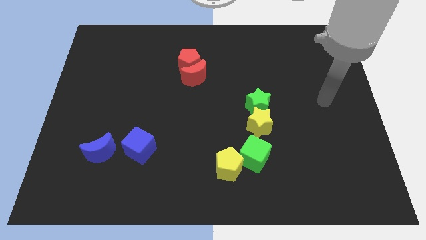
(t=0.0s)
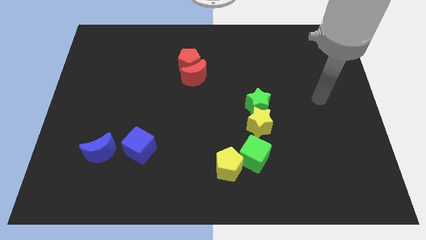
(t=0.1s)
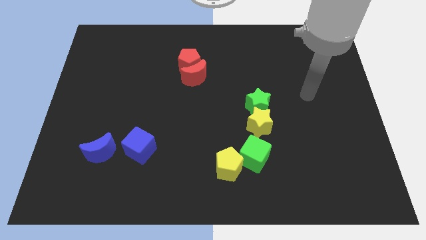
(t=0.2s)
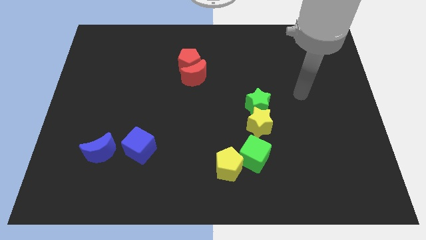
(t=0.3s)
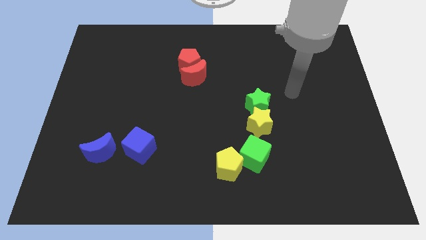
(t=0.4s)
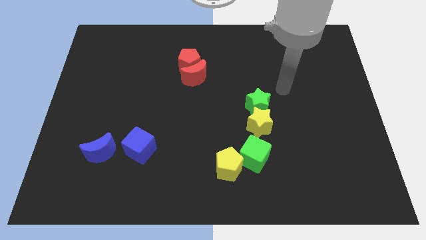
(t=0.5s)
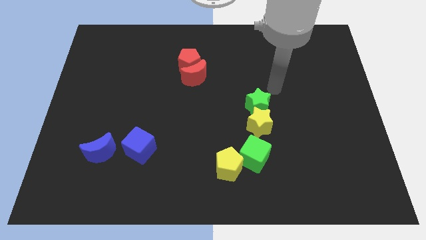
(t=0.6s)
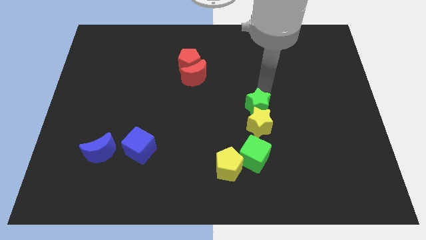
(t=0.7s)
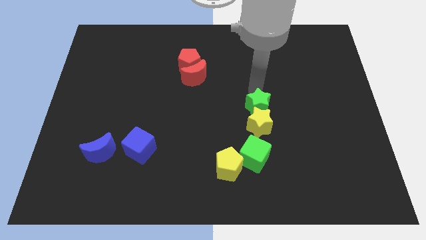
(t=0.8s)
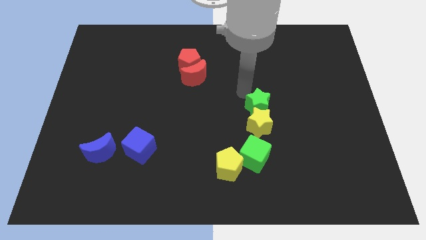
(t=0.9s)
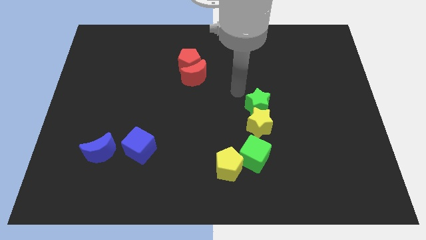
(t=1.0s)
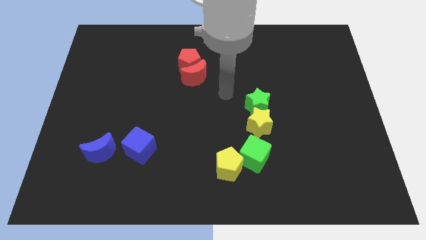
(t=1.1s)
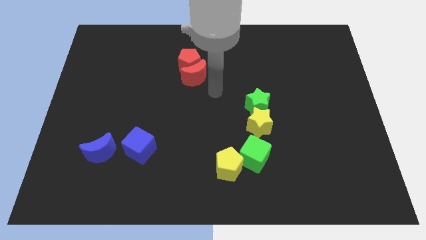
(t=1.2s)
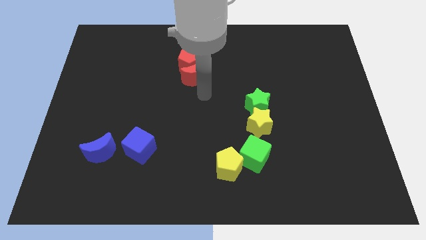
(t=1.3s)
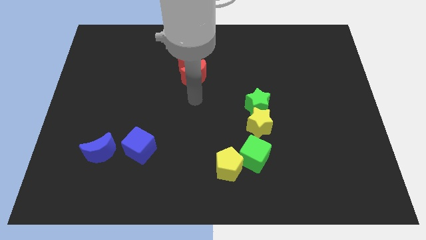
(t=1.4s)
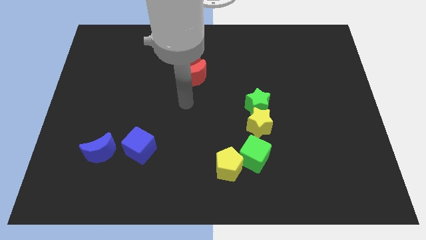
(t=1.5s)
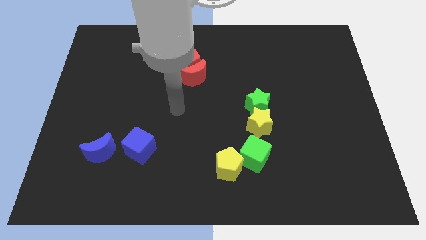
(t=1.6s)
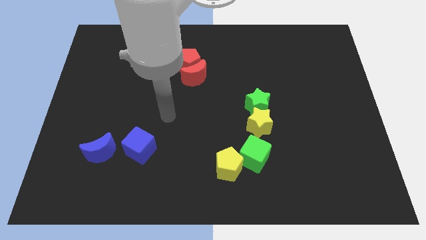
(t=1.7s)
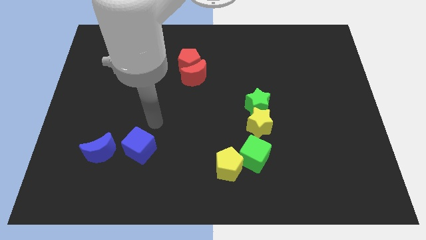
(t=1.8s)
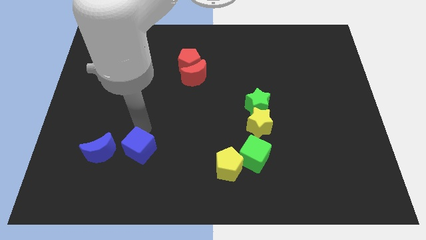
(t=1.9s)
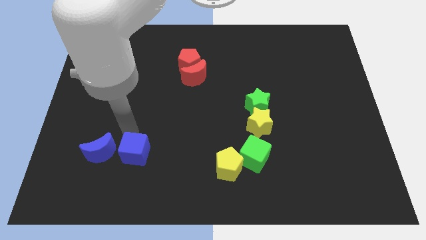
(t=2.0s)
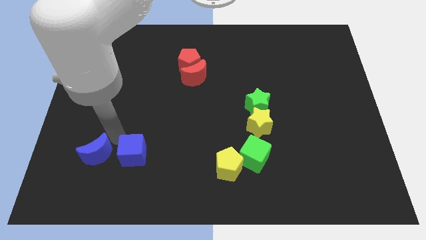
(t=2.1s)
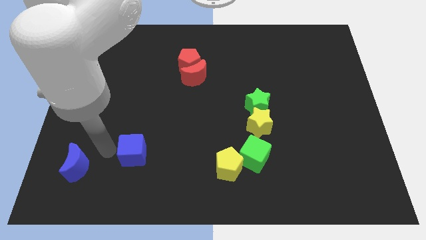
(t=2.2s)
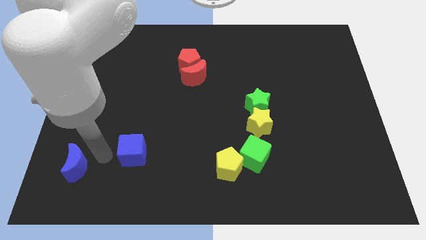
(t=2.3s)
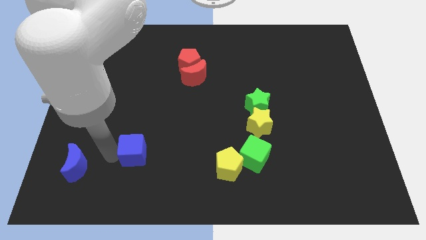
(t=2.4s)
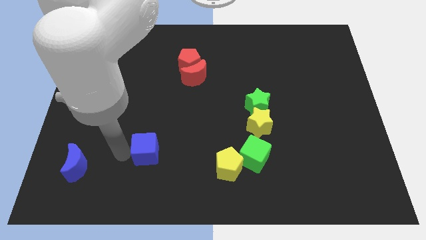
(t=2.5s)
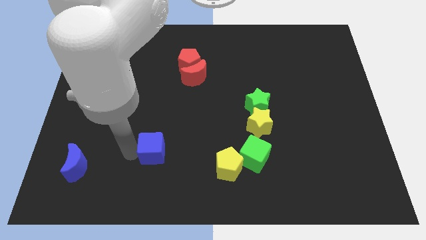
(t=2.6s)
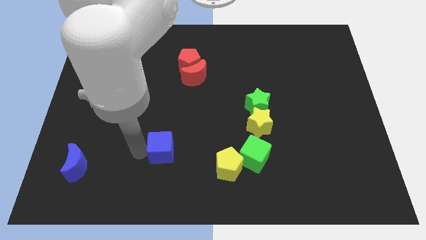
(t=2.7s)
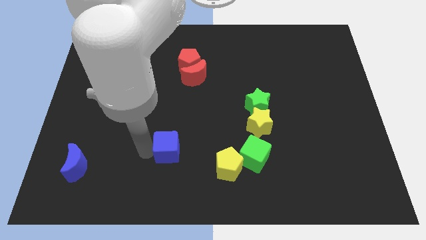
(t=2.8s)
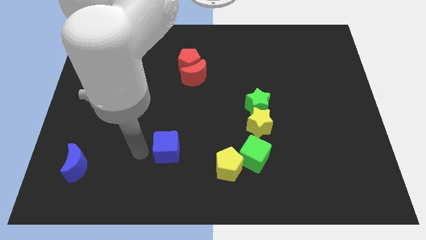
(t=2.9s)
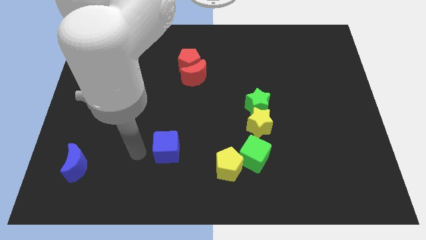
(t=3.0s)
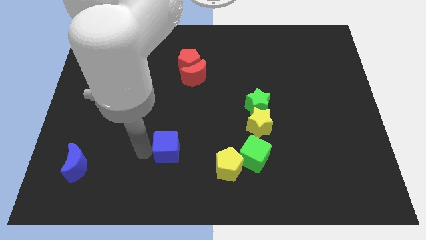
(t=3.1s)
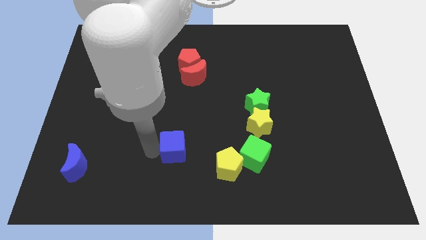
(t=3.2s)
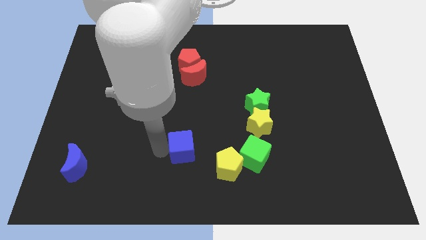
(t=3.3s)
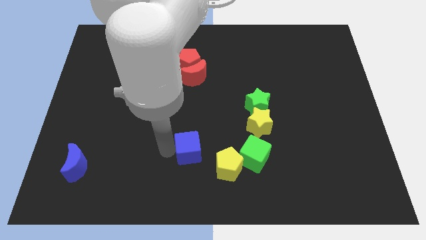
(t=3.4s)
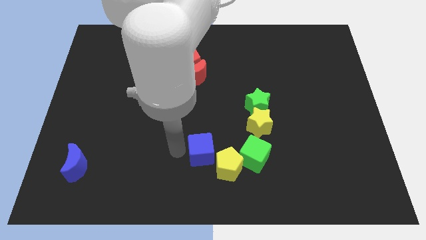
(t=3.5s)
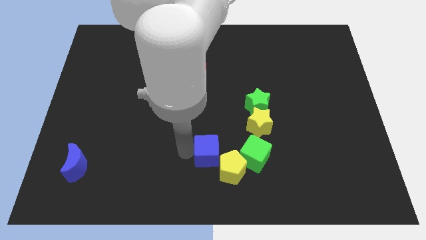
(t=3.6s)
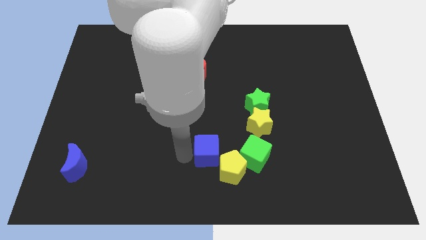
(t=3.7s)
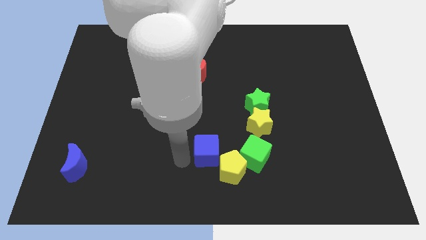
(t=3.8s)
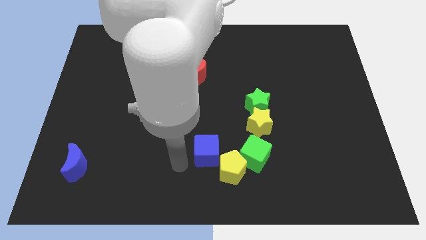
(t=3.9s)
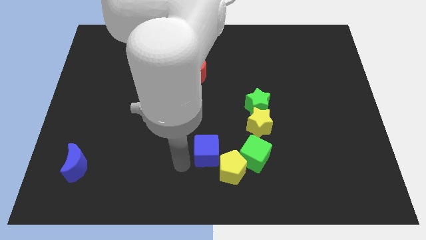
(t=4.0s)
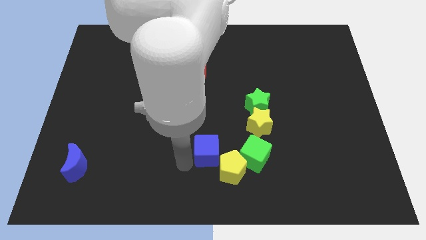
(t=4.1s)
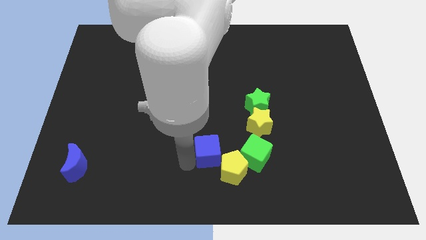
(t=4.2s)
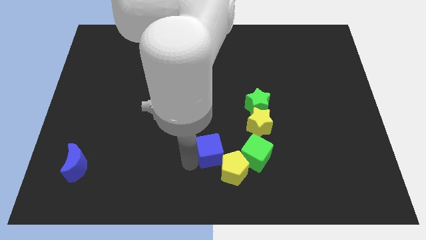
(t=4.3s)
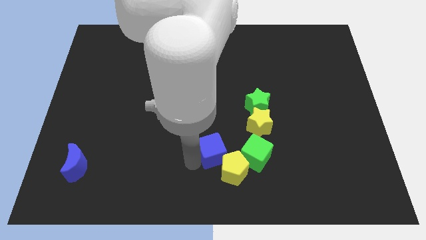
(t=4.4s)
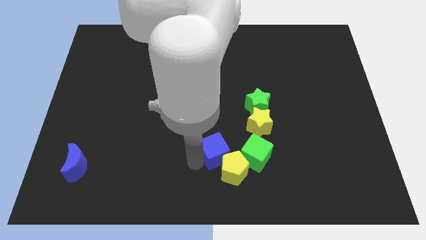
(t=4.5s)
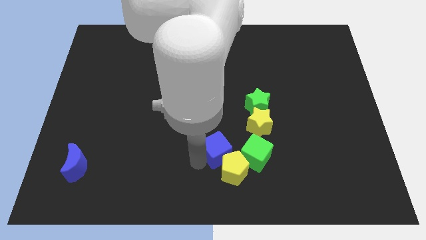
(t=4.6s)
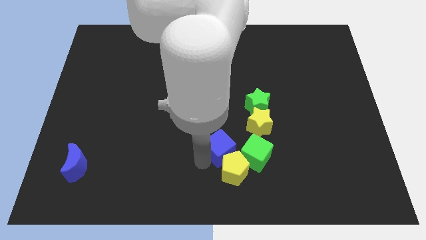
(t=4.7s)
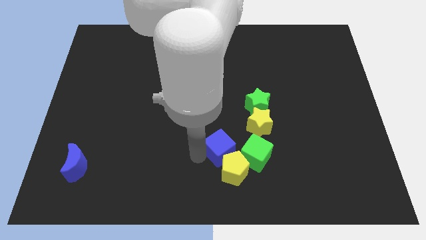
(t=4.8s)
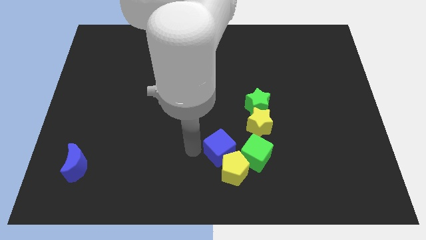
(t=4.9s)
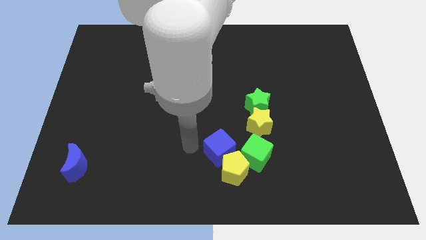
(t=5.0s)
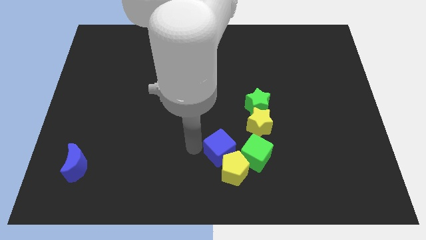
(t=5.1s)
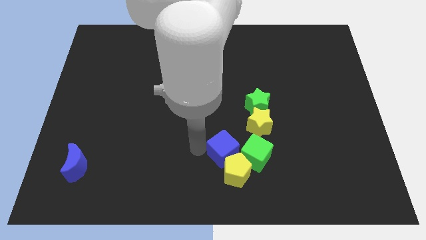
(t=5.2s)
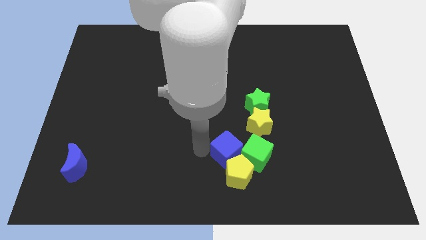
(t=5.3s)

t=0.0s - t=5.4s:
move the blue cube close to the green cube

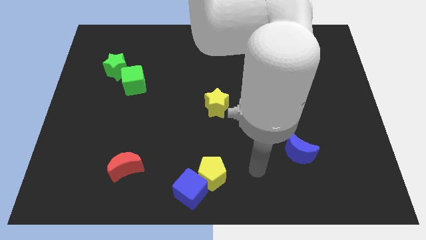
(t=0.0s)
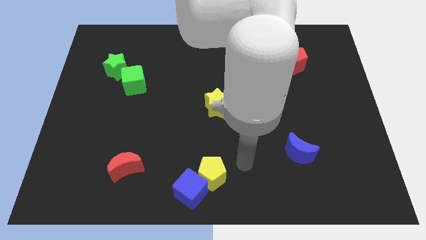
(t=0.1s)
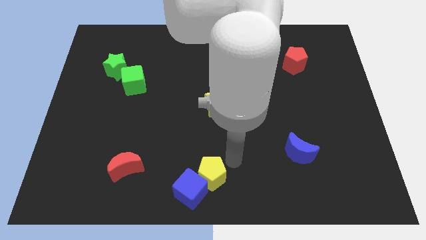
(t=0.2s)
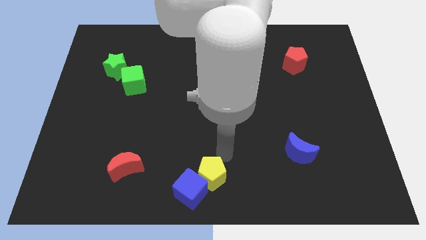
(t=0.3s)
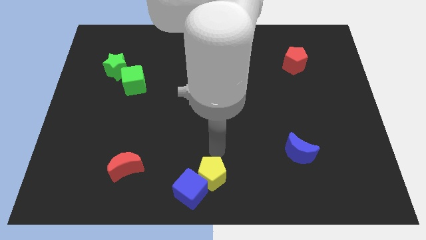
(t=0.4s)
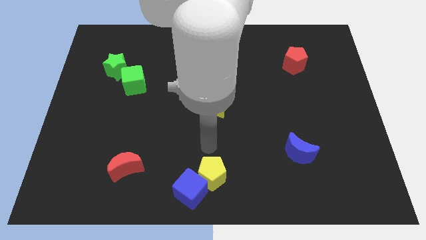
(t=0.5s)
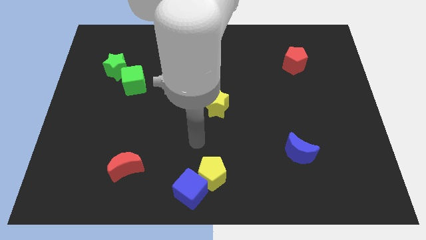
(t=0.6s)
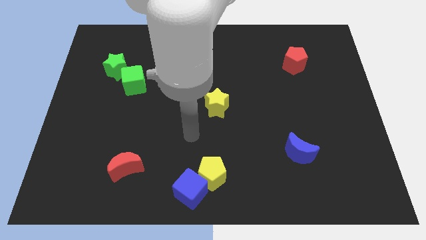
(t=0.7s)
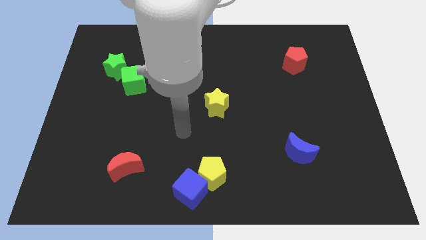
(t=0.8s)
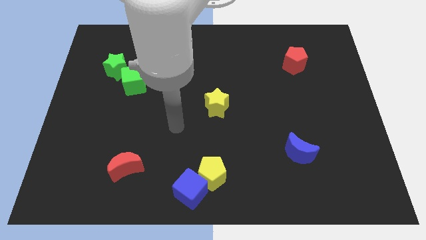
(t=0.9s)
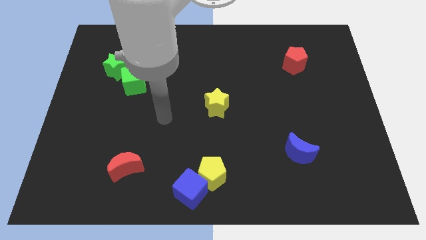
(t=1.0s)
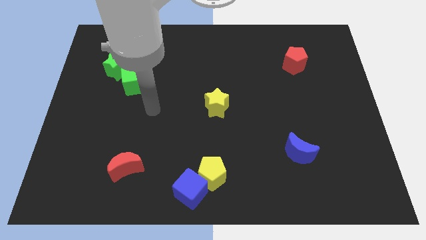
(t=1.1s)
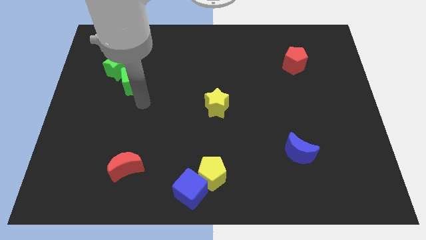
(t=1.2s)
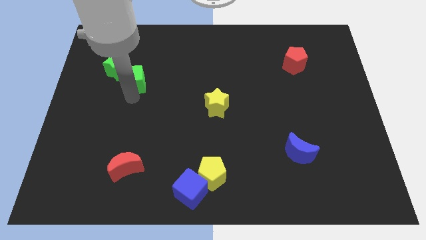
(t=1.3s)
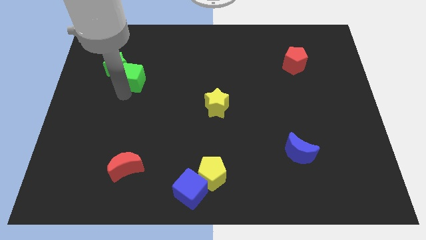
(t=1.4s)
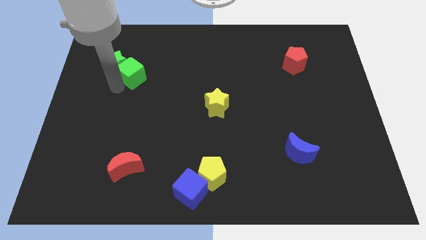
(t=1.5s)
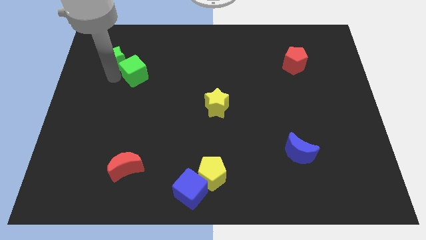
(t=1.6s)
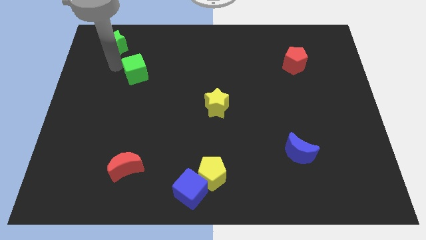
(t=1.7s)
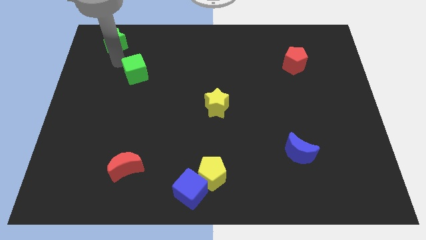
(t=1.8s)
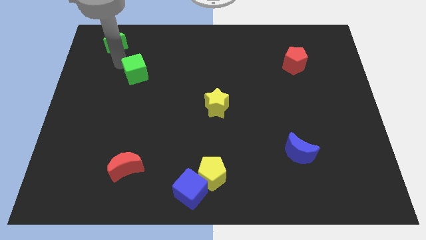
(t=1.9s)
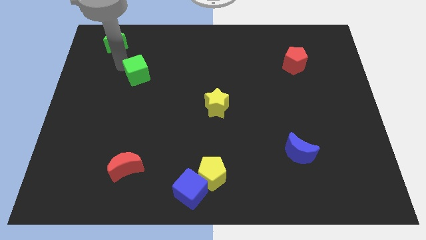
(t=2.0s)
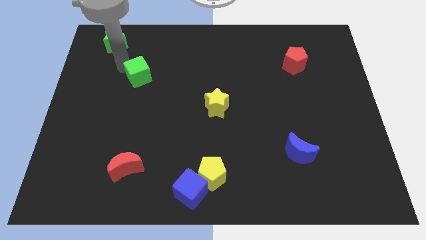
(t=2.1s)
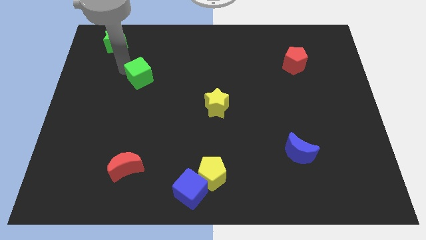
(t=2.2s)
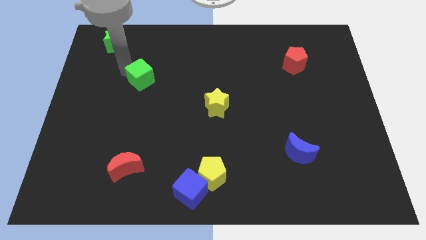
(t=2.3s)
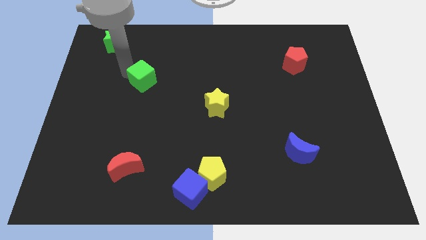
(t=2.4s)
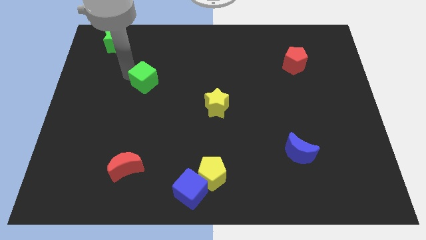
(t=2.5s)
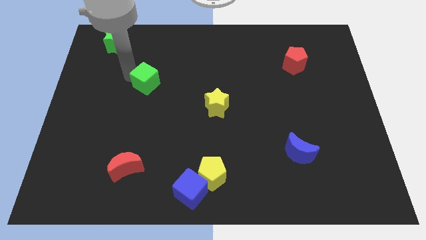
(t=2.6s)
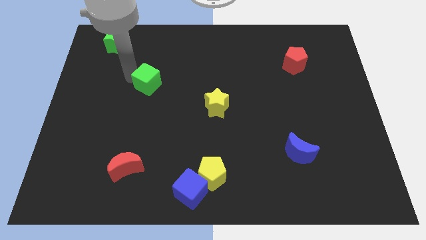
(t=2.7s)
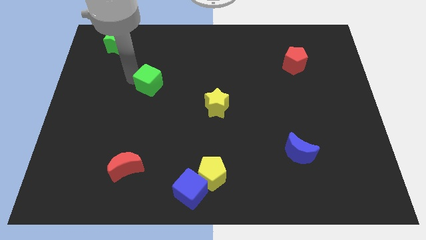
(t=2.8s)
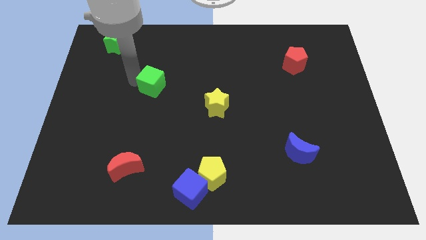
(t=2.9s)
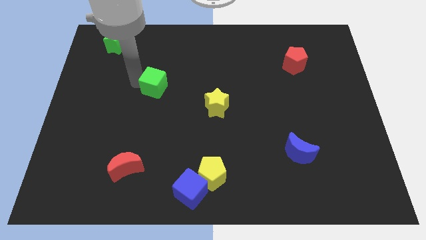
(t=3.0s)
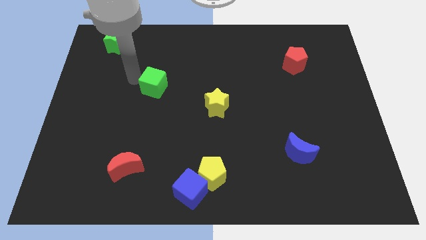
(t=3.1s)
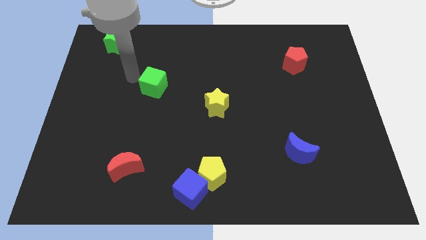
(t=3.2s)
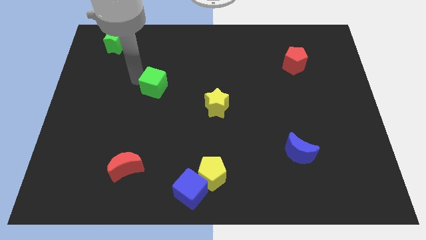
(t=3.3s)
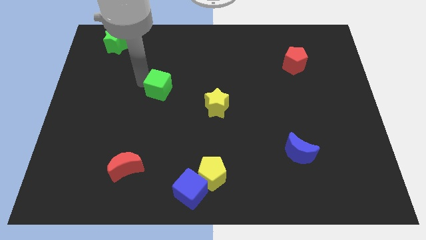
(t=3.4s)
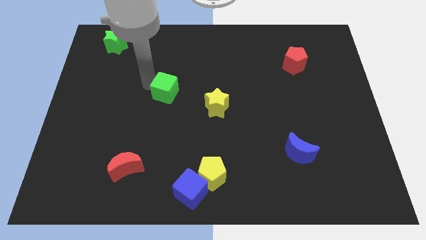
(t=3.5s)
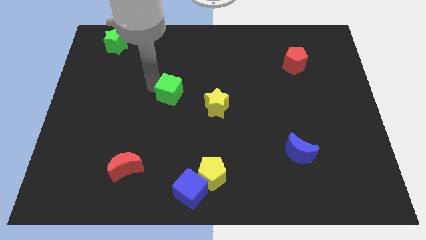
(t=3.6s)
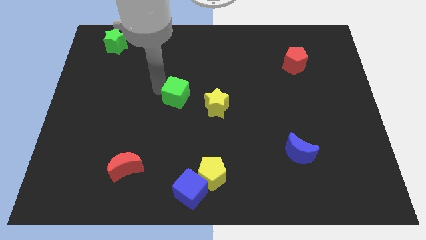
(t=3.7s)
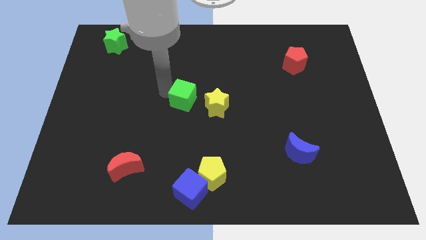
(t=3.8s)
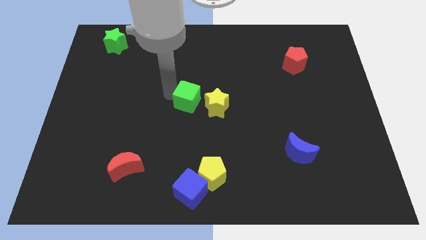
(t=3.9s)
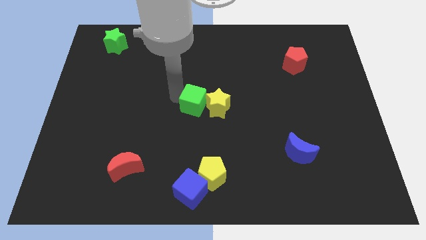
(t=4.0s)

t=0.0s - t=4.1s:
move the green cube towards the yellow star
